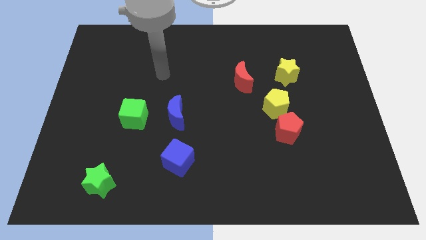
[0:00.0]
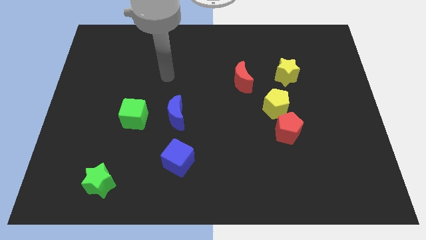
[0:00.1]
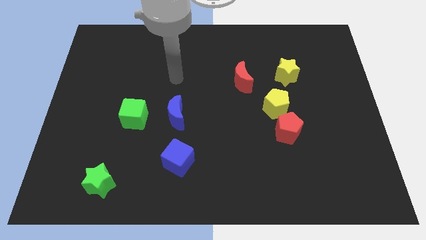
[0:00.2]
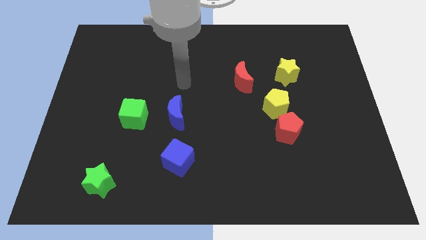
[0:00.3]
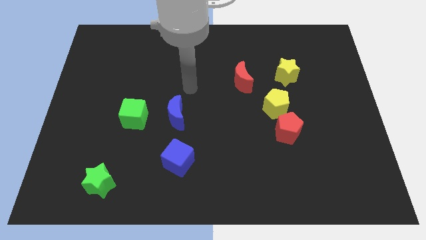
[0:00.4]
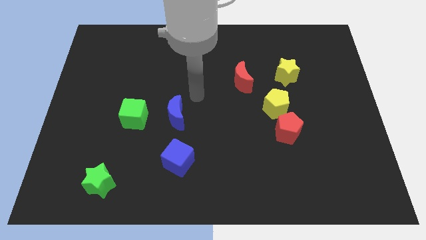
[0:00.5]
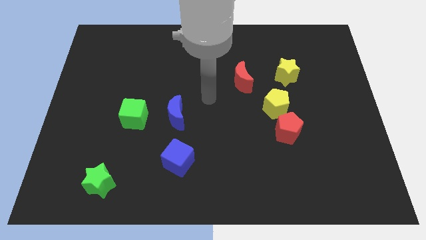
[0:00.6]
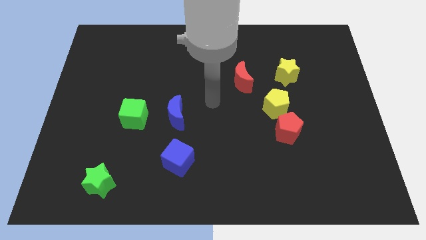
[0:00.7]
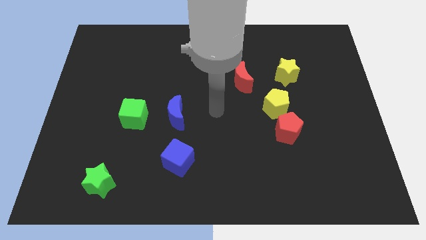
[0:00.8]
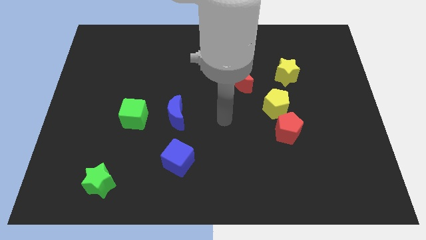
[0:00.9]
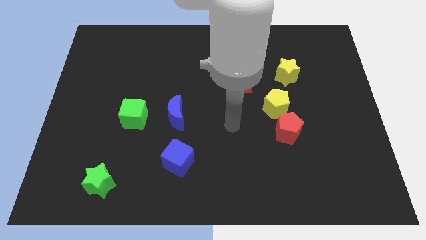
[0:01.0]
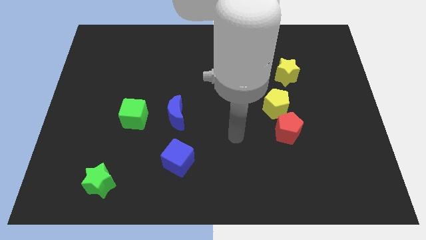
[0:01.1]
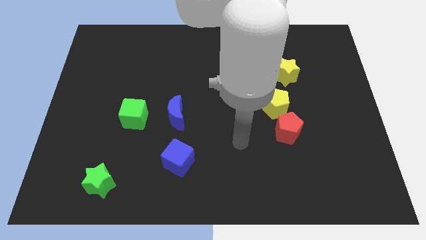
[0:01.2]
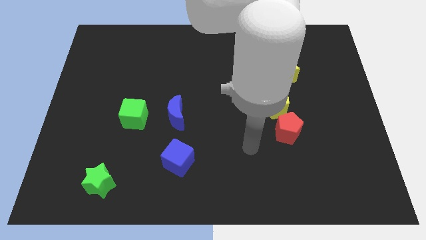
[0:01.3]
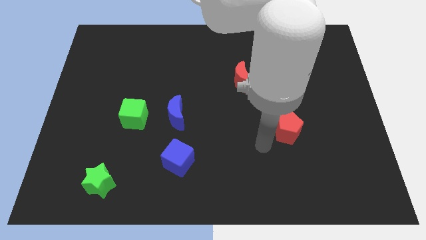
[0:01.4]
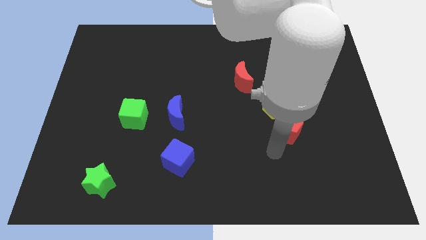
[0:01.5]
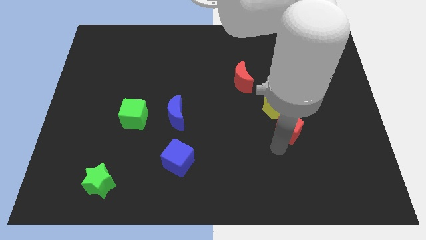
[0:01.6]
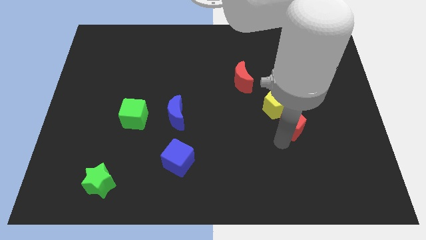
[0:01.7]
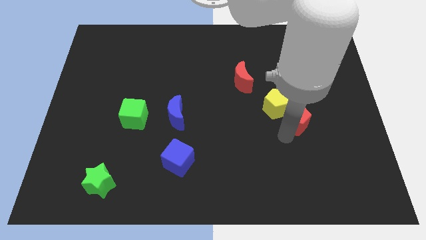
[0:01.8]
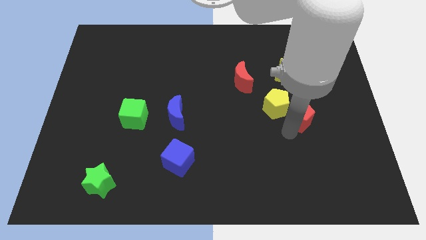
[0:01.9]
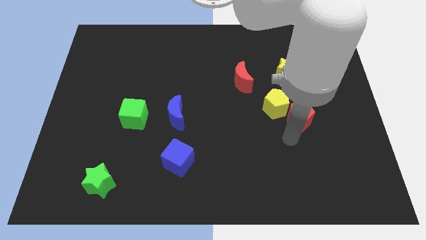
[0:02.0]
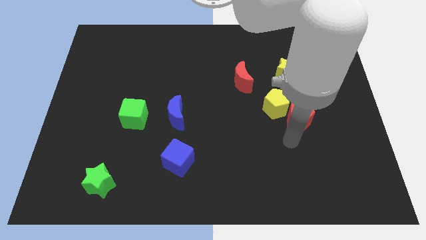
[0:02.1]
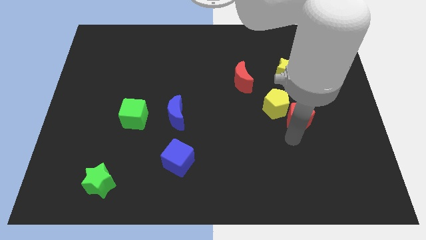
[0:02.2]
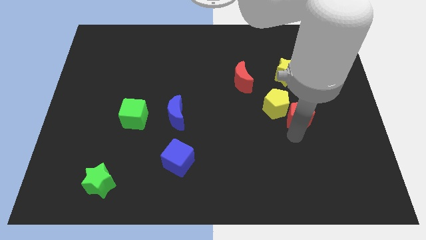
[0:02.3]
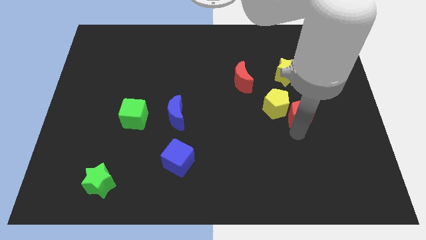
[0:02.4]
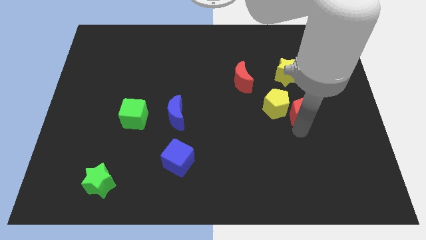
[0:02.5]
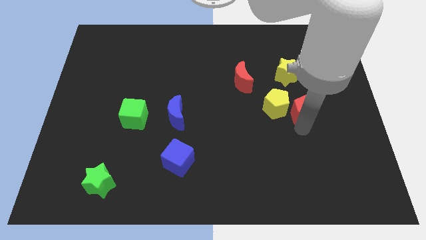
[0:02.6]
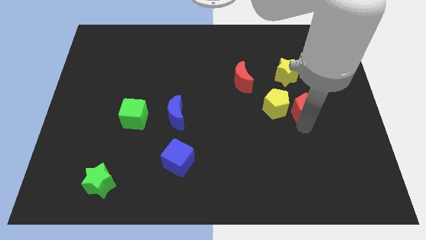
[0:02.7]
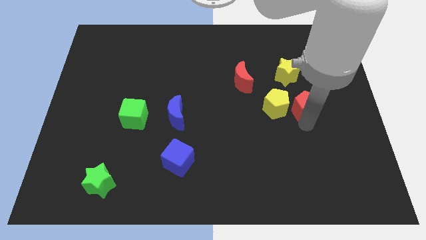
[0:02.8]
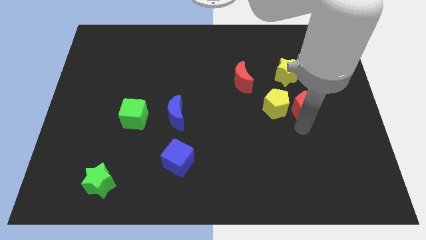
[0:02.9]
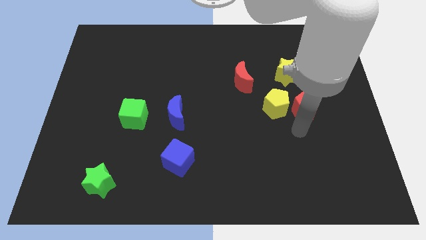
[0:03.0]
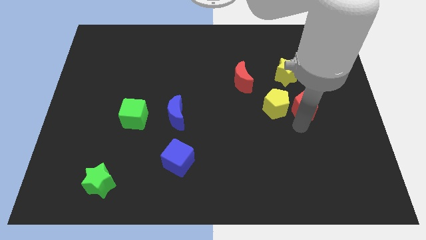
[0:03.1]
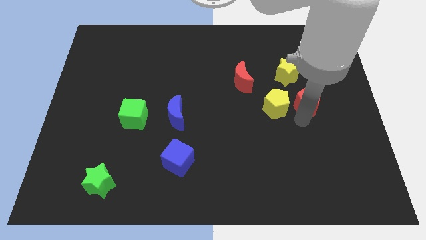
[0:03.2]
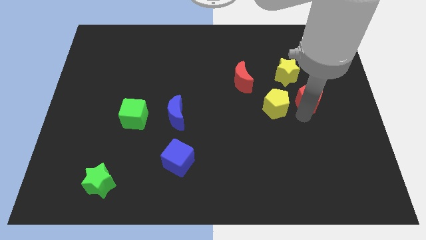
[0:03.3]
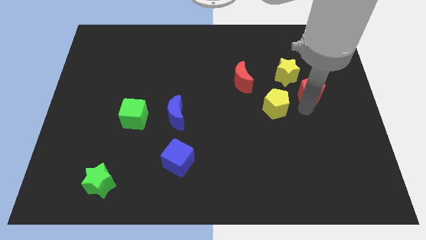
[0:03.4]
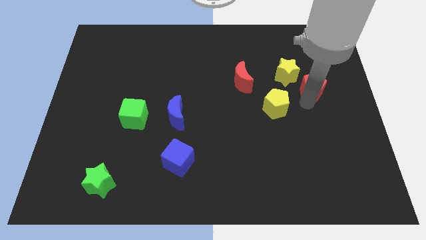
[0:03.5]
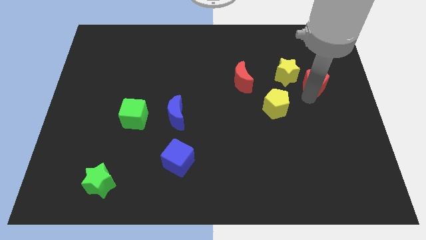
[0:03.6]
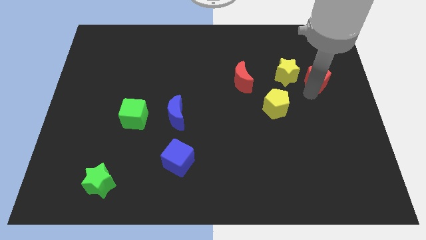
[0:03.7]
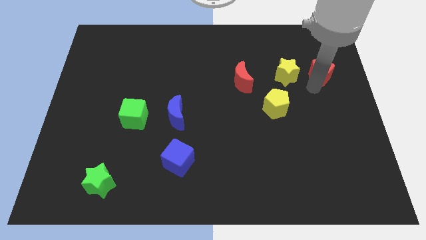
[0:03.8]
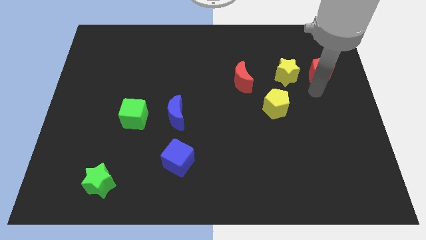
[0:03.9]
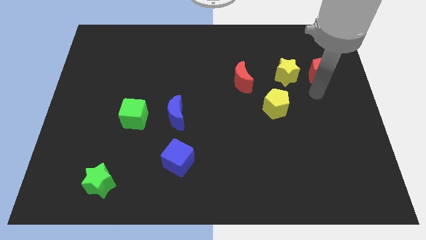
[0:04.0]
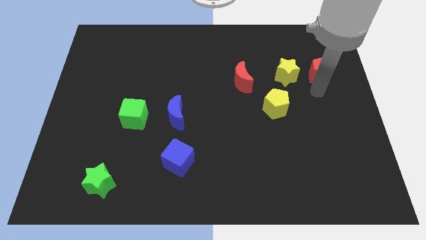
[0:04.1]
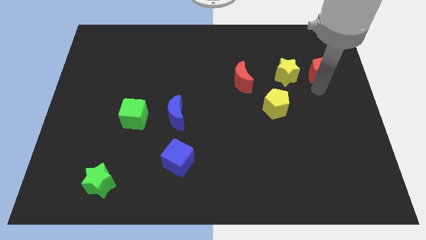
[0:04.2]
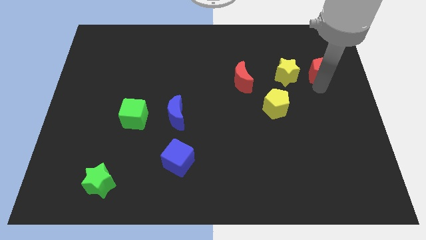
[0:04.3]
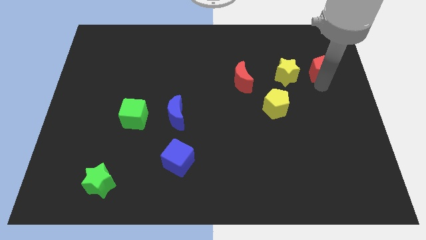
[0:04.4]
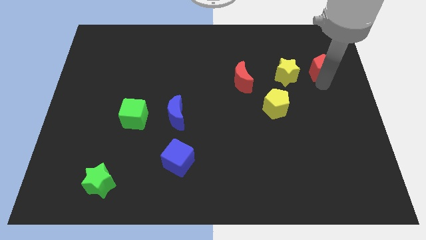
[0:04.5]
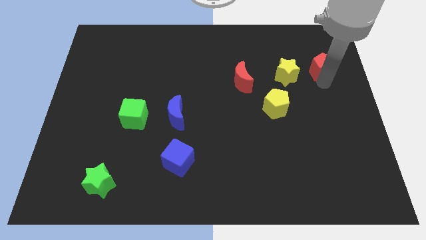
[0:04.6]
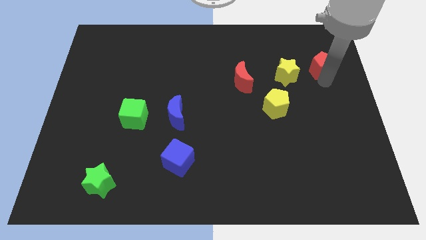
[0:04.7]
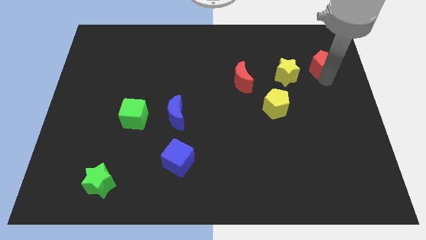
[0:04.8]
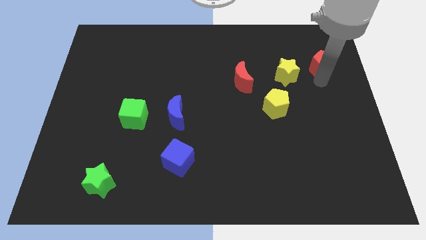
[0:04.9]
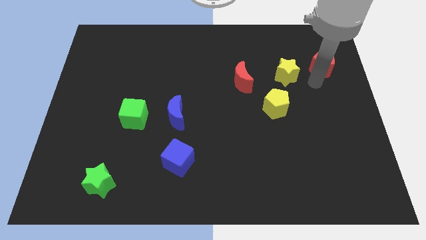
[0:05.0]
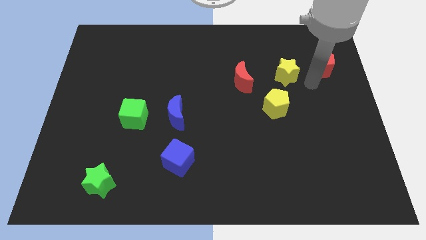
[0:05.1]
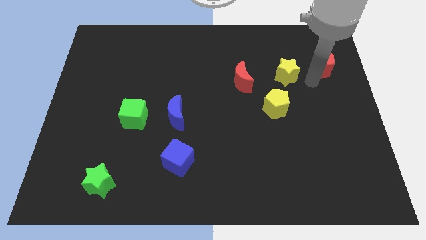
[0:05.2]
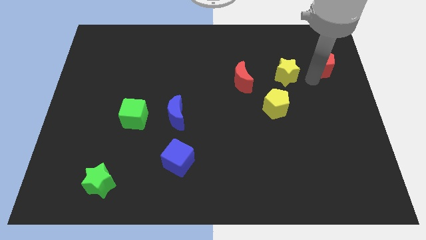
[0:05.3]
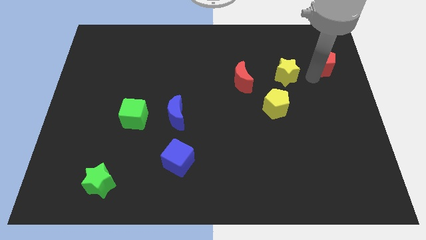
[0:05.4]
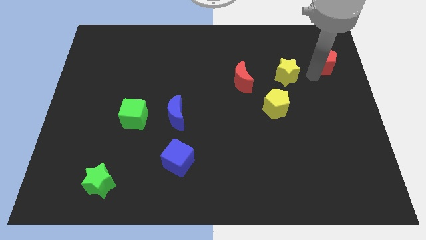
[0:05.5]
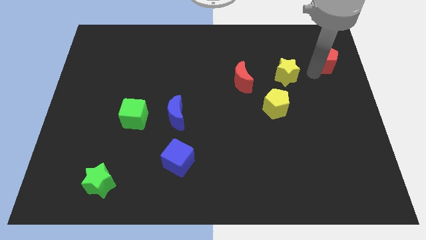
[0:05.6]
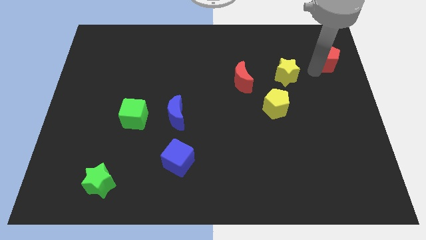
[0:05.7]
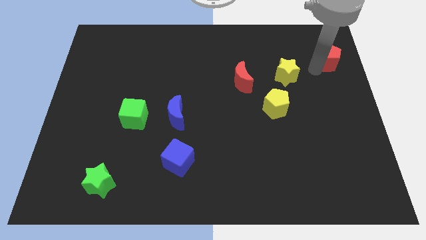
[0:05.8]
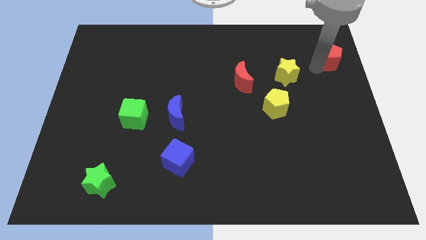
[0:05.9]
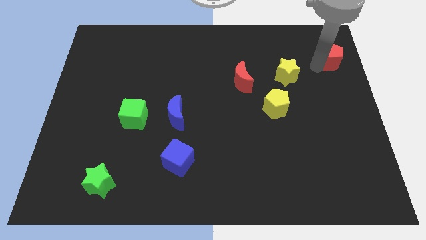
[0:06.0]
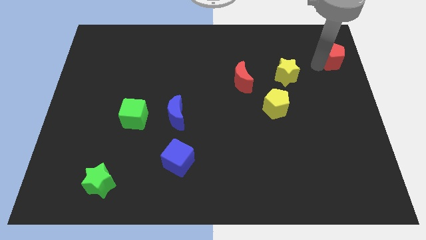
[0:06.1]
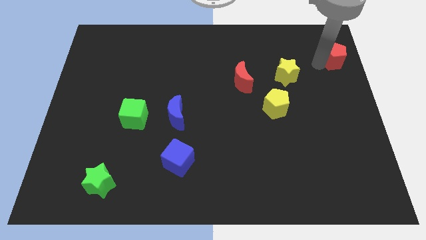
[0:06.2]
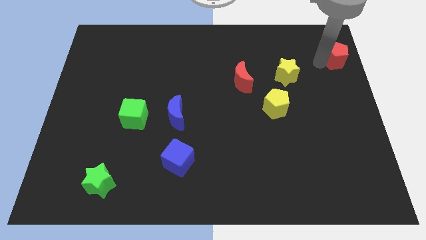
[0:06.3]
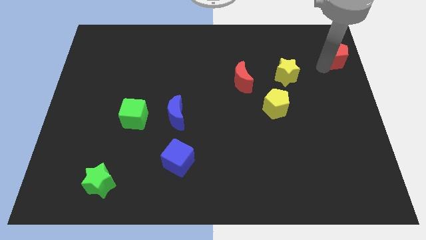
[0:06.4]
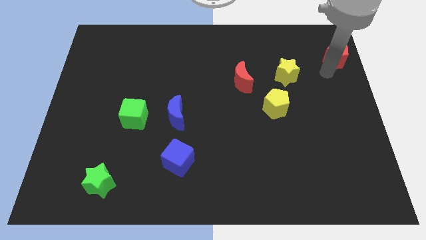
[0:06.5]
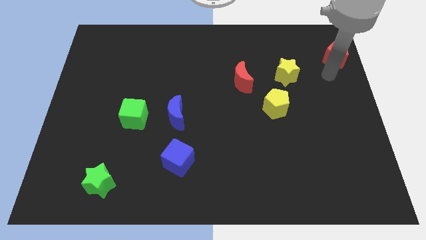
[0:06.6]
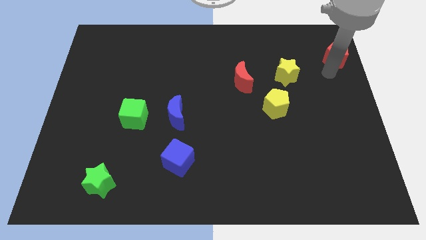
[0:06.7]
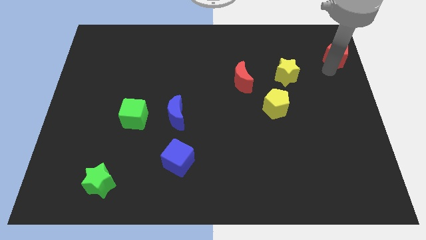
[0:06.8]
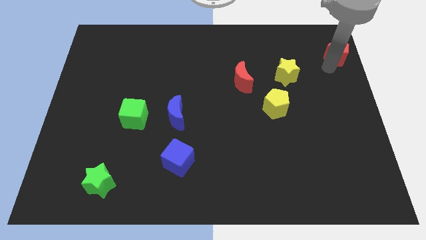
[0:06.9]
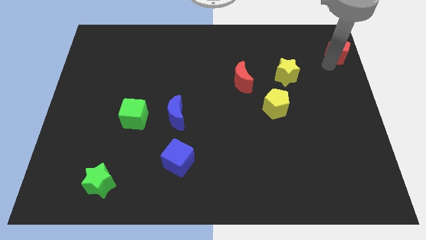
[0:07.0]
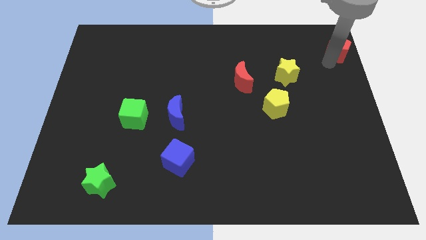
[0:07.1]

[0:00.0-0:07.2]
move the red pentagon to the top right of the board

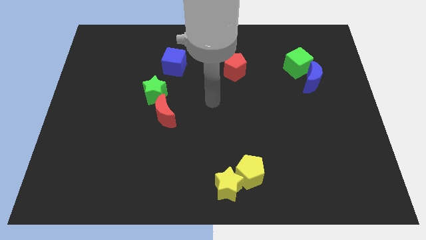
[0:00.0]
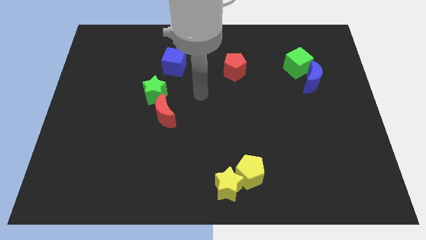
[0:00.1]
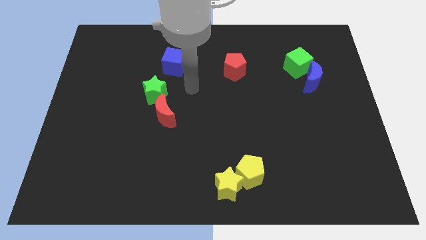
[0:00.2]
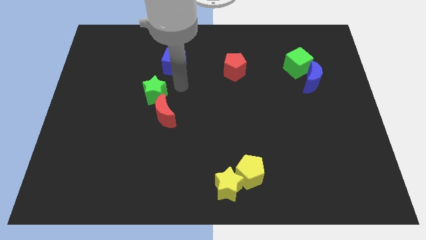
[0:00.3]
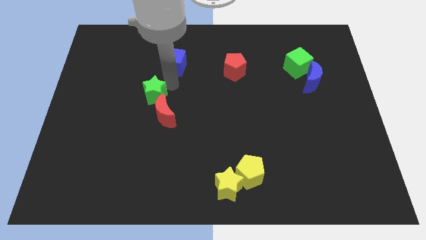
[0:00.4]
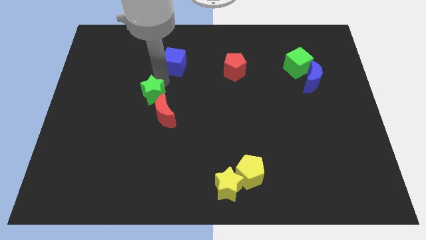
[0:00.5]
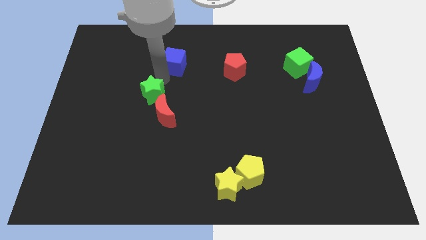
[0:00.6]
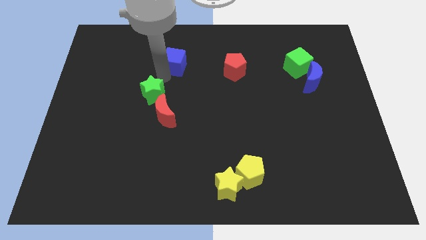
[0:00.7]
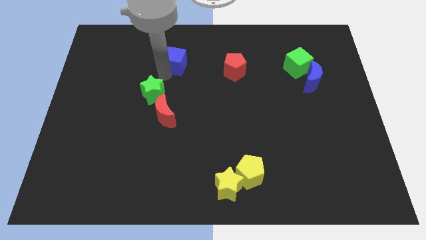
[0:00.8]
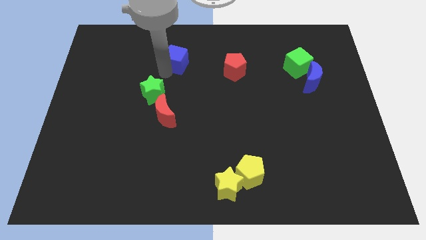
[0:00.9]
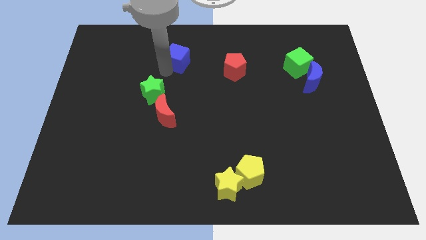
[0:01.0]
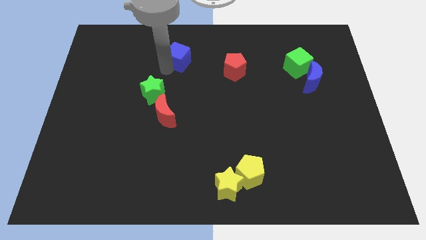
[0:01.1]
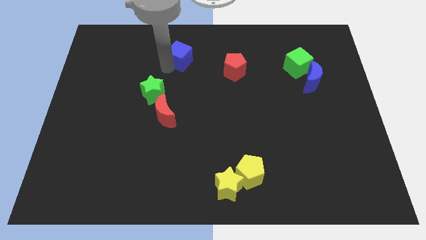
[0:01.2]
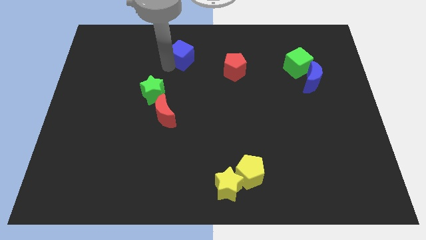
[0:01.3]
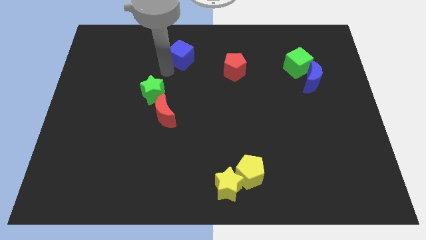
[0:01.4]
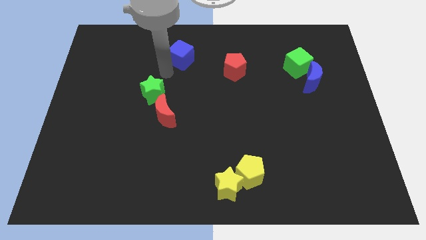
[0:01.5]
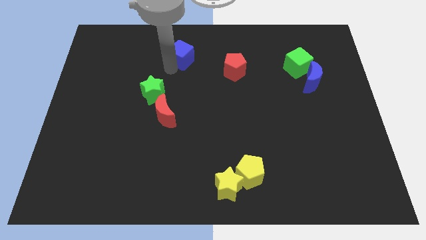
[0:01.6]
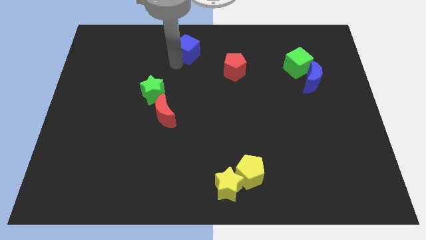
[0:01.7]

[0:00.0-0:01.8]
move the blue cube to the towards your base
